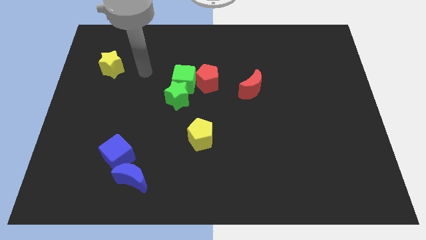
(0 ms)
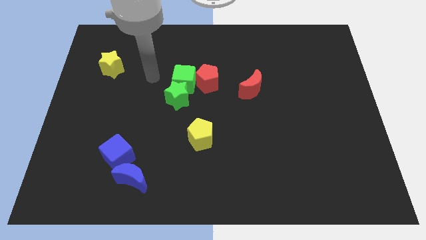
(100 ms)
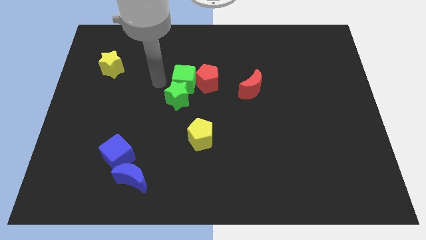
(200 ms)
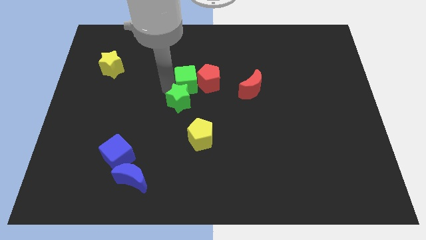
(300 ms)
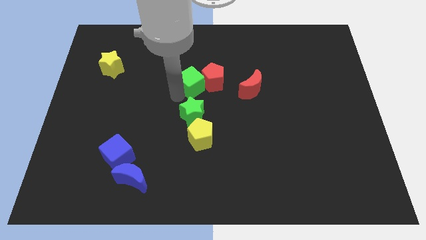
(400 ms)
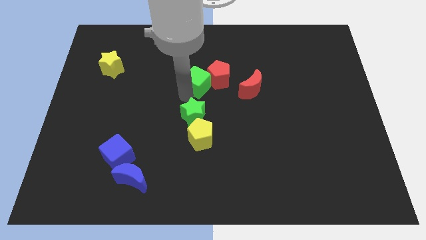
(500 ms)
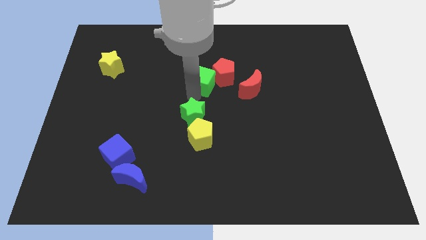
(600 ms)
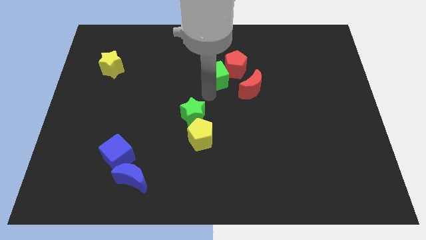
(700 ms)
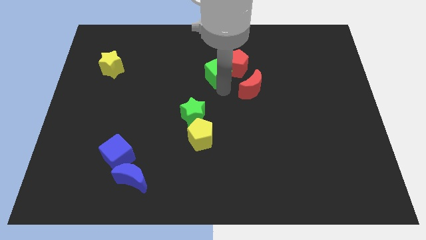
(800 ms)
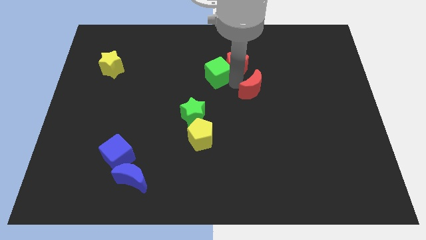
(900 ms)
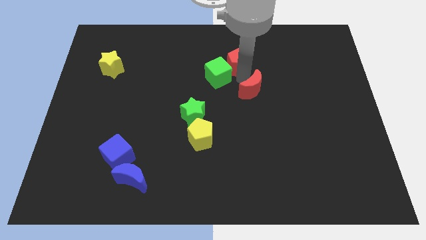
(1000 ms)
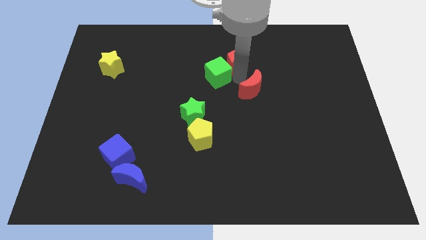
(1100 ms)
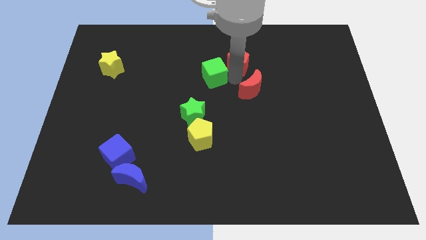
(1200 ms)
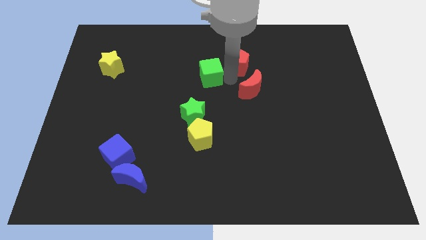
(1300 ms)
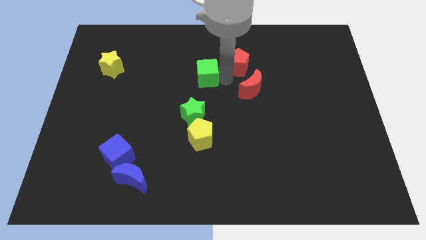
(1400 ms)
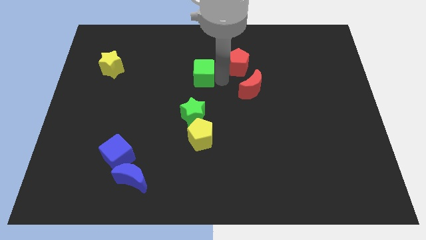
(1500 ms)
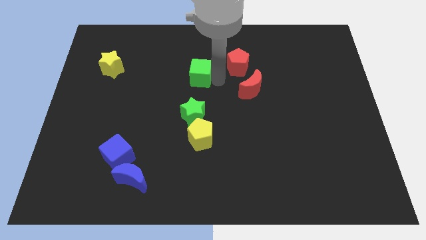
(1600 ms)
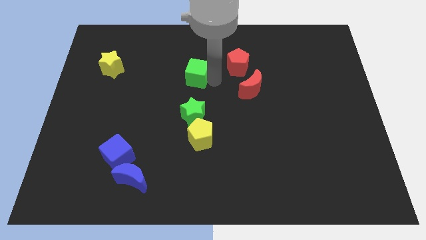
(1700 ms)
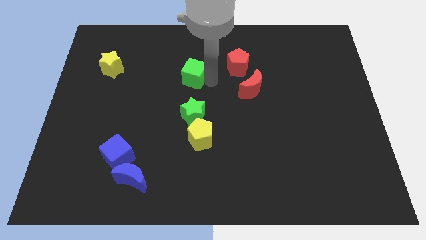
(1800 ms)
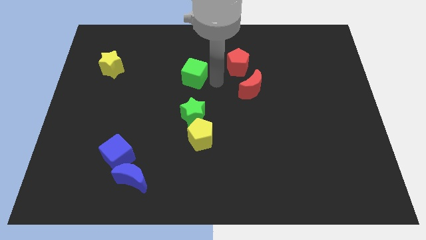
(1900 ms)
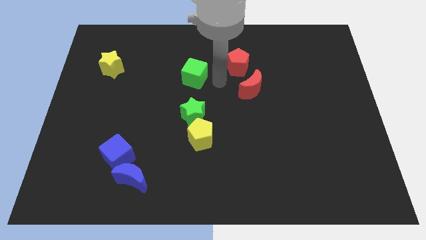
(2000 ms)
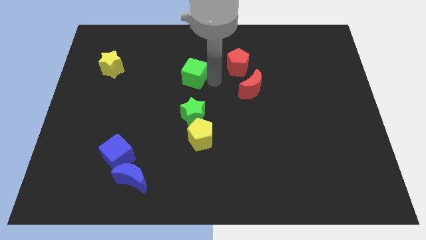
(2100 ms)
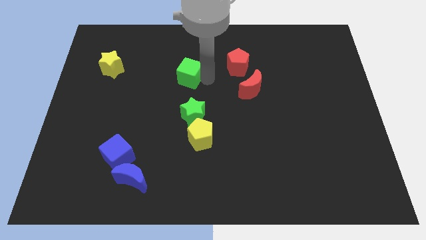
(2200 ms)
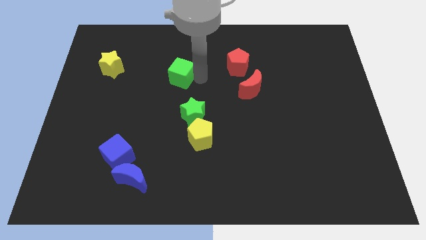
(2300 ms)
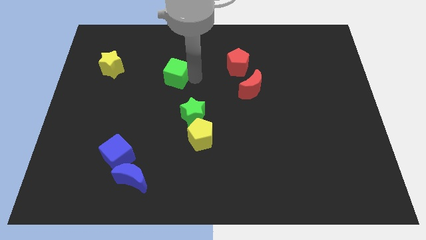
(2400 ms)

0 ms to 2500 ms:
separate the green cube from the green star and red pentagon

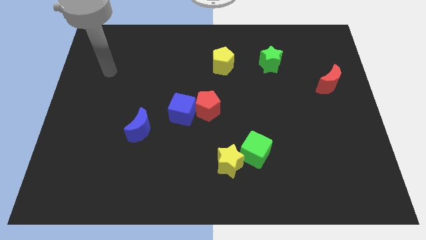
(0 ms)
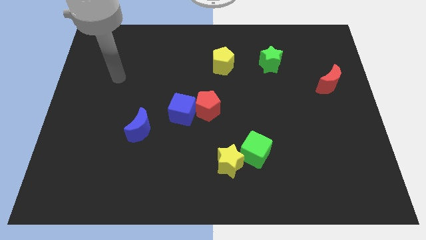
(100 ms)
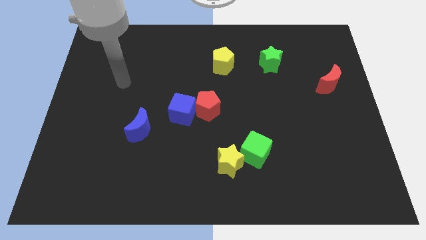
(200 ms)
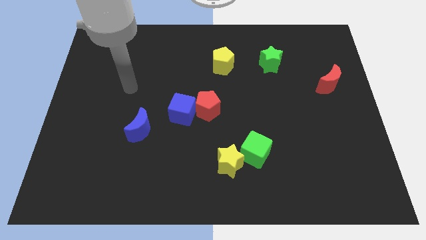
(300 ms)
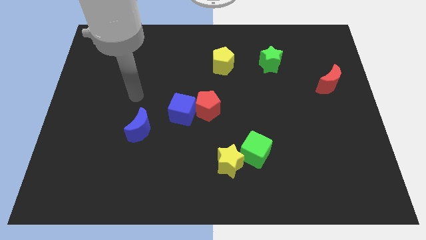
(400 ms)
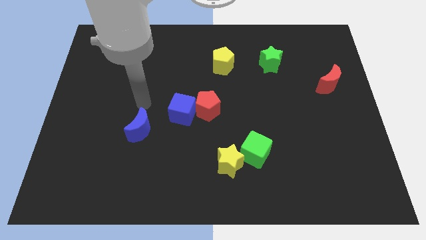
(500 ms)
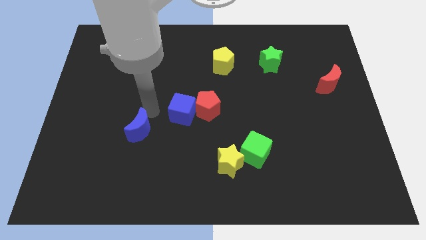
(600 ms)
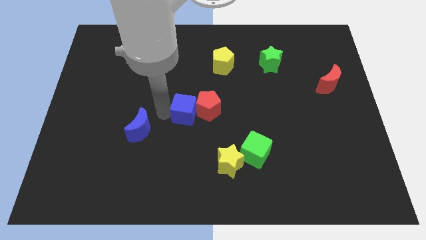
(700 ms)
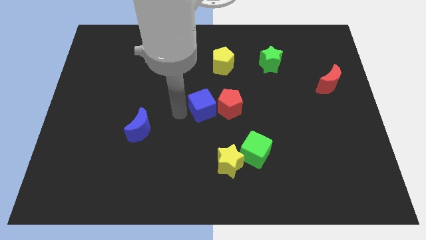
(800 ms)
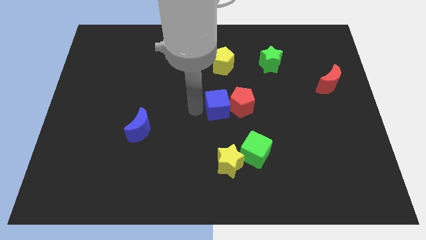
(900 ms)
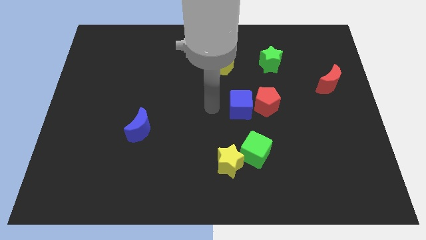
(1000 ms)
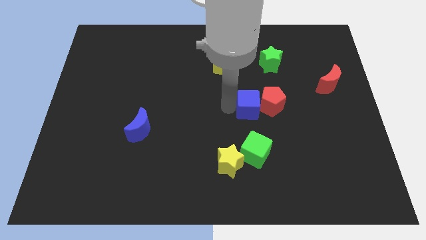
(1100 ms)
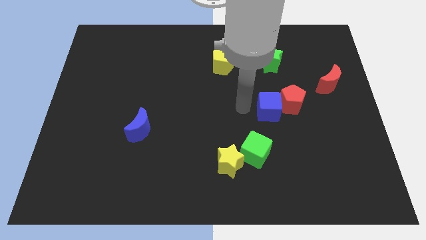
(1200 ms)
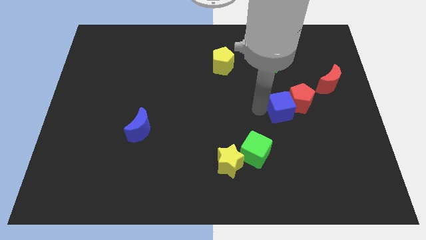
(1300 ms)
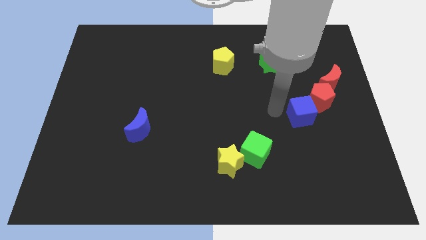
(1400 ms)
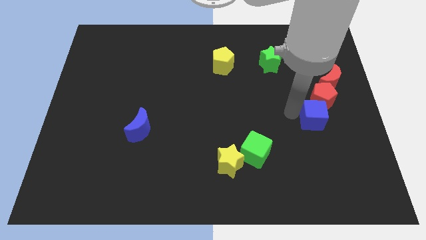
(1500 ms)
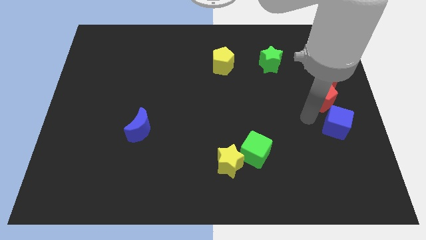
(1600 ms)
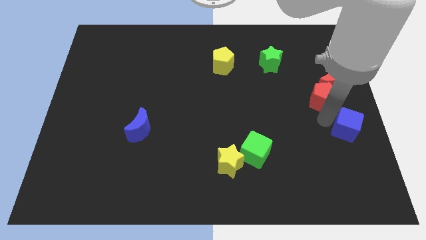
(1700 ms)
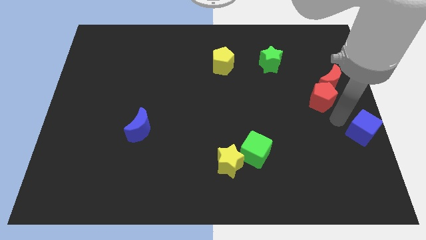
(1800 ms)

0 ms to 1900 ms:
move the red pentagon away from the blue cube

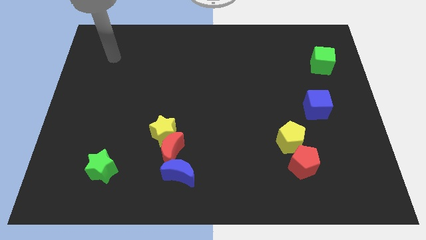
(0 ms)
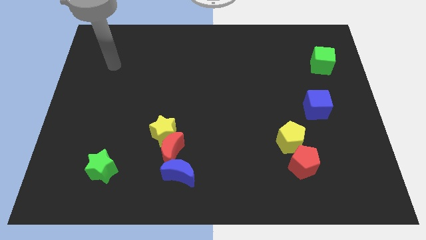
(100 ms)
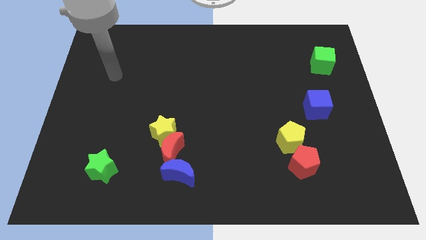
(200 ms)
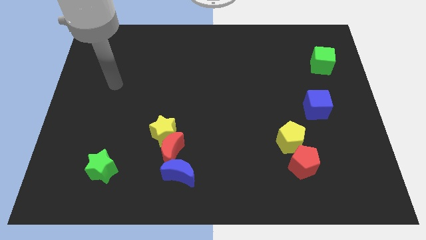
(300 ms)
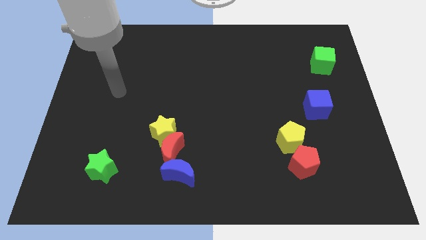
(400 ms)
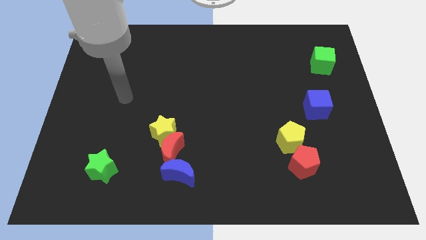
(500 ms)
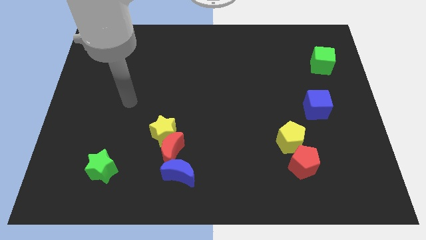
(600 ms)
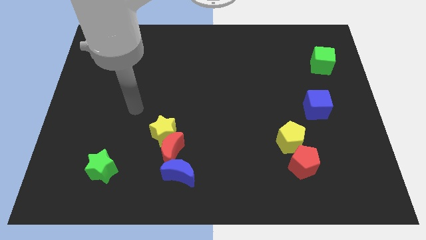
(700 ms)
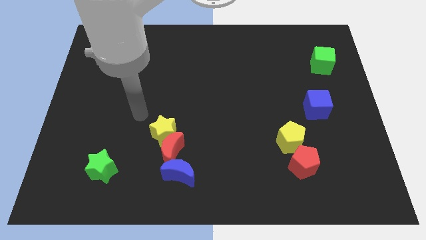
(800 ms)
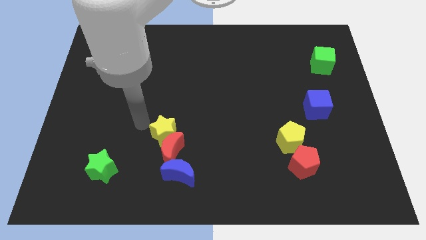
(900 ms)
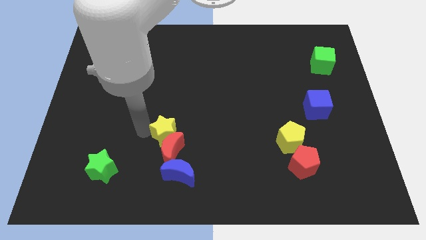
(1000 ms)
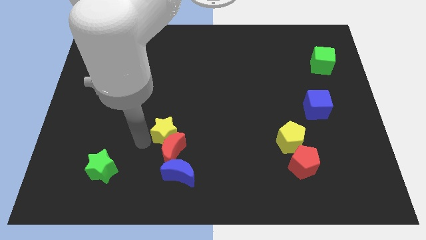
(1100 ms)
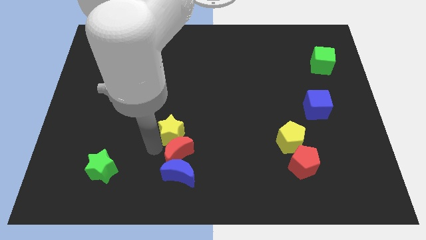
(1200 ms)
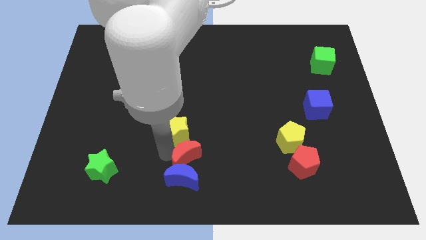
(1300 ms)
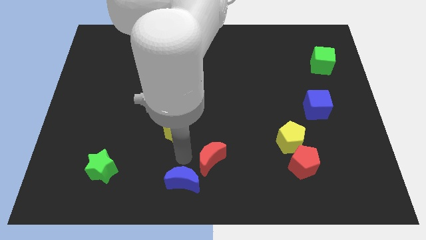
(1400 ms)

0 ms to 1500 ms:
separate the yellow star from the red moon

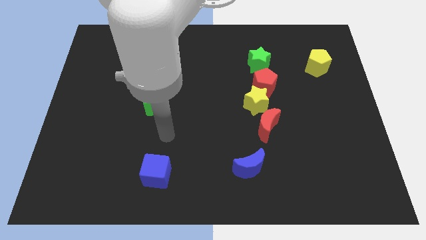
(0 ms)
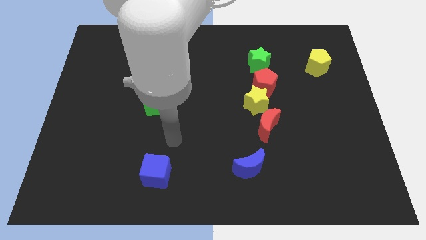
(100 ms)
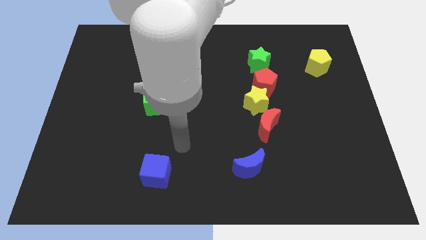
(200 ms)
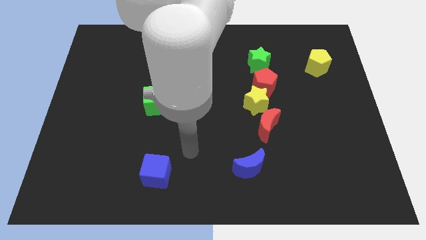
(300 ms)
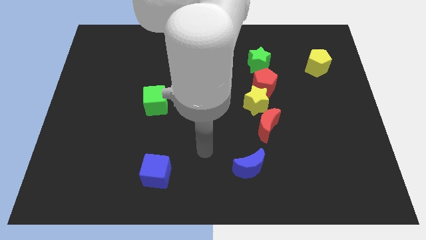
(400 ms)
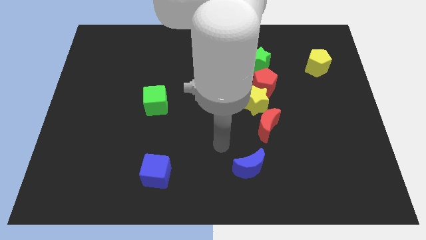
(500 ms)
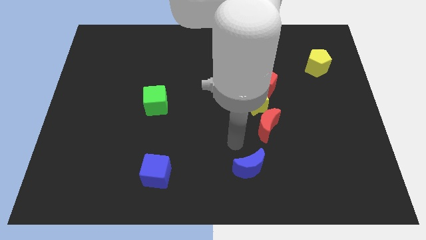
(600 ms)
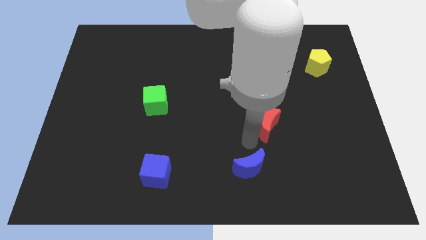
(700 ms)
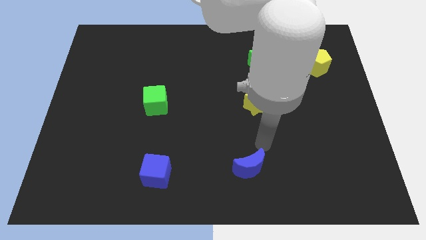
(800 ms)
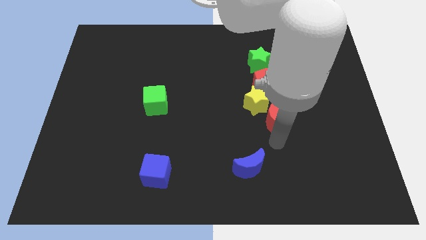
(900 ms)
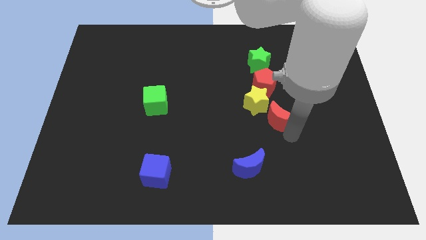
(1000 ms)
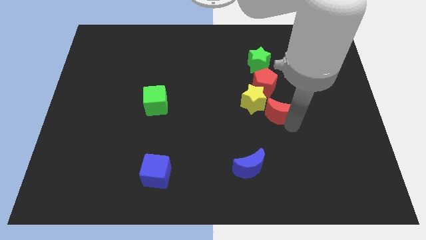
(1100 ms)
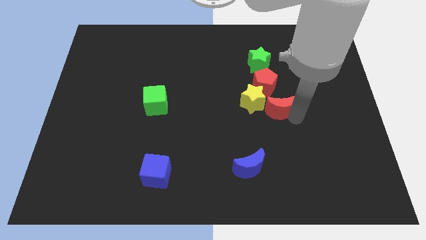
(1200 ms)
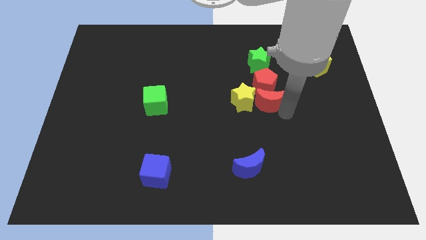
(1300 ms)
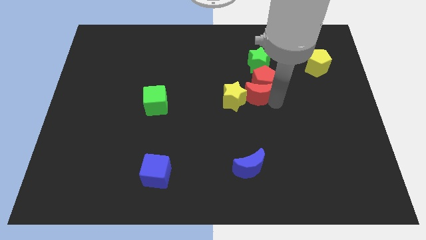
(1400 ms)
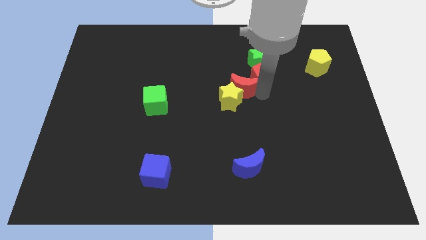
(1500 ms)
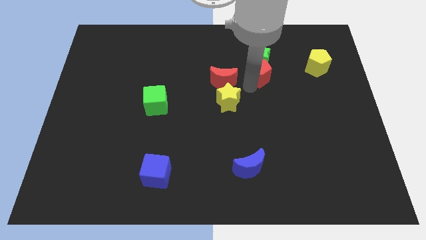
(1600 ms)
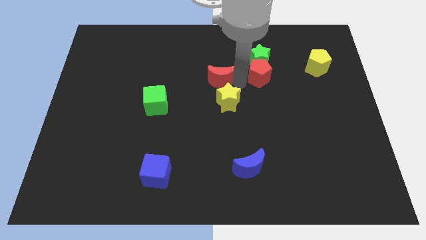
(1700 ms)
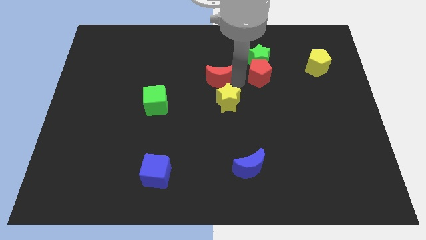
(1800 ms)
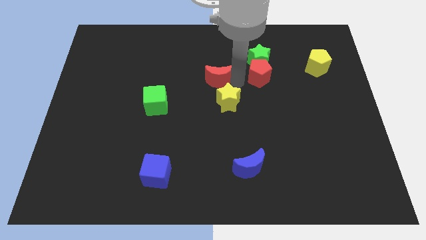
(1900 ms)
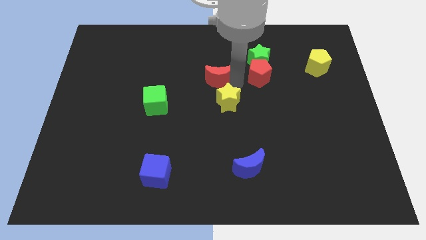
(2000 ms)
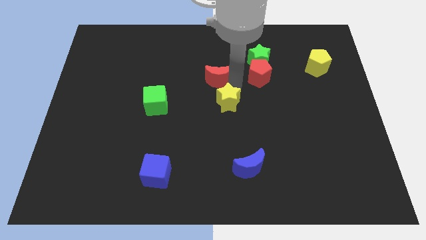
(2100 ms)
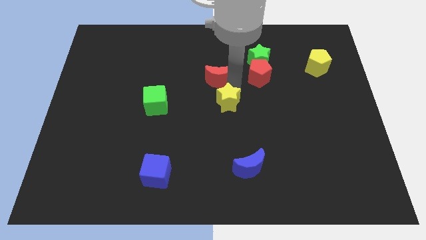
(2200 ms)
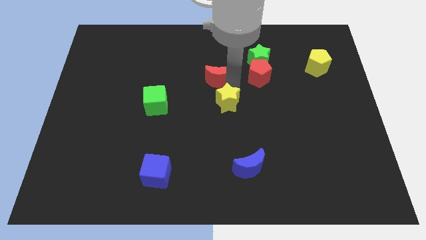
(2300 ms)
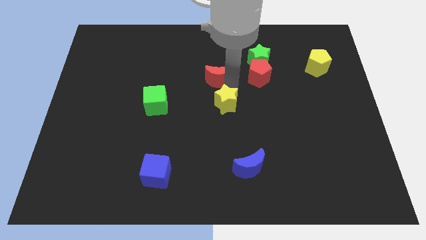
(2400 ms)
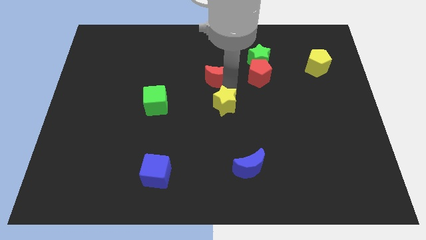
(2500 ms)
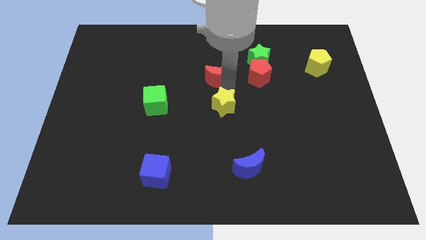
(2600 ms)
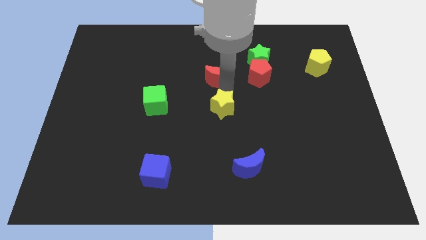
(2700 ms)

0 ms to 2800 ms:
pull the yellow star apart from the red pentagon and red moon

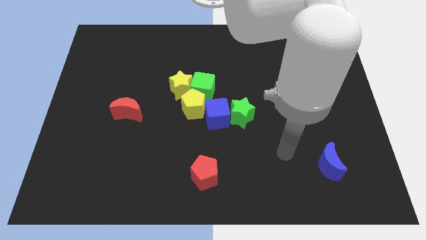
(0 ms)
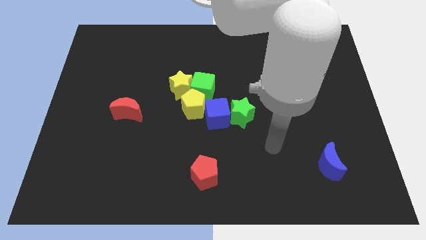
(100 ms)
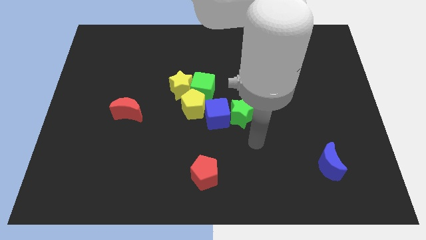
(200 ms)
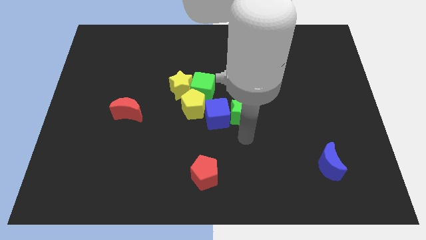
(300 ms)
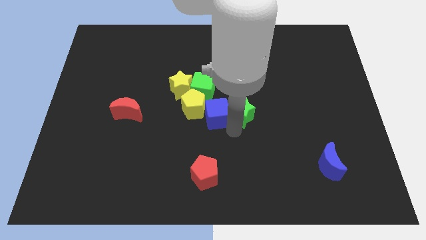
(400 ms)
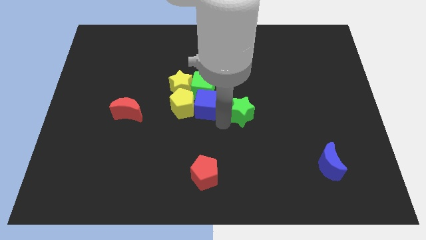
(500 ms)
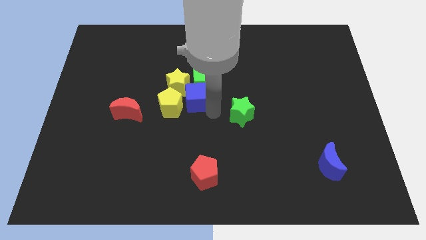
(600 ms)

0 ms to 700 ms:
pull the green star apart from the blue cube

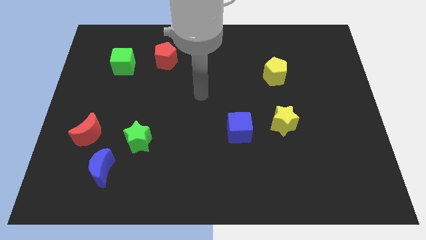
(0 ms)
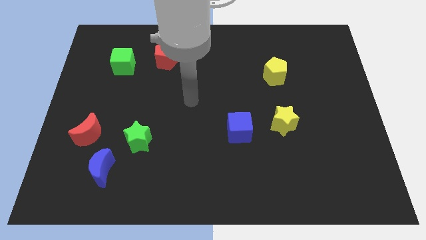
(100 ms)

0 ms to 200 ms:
separate the red moon from the blue moon
